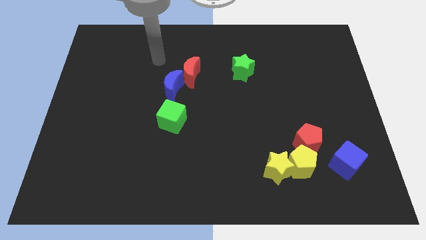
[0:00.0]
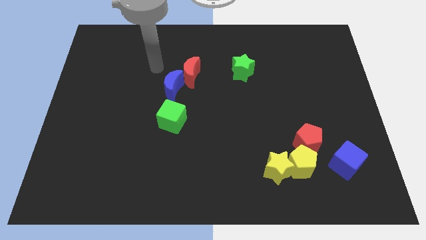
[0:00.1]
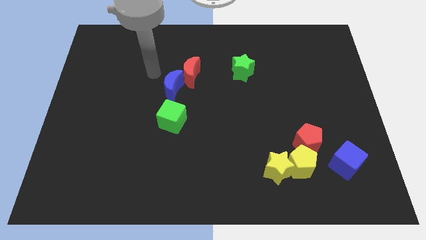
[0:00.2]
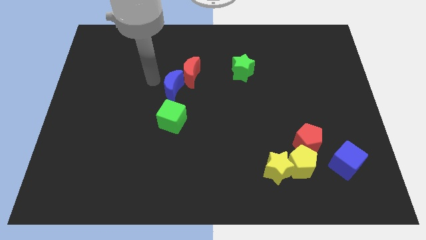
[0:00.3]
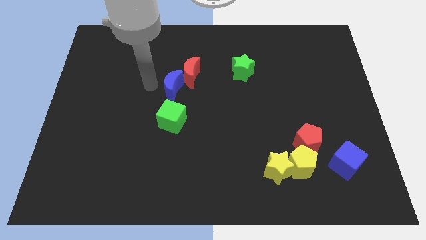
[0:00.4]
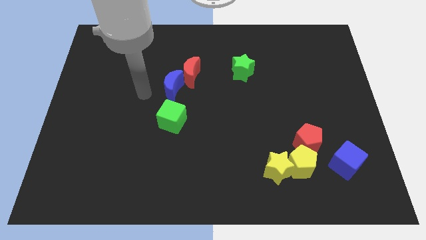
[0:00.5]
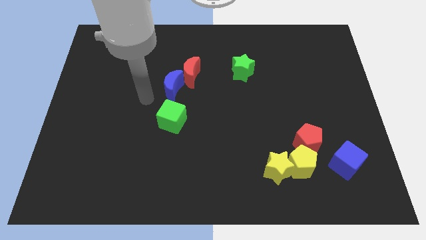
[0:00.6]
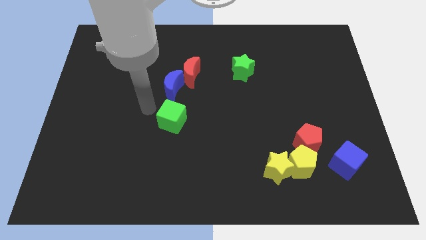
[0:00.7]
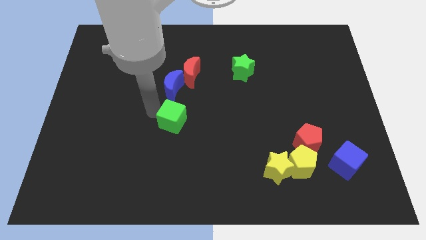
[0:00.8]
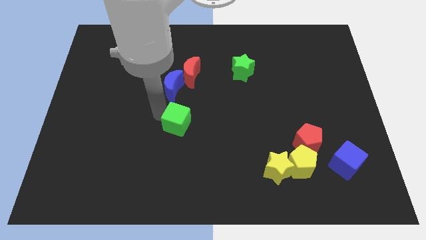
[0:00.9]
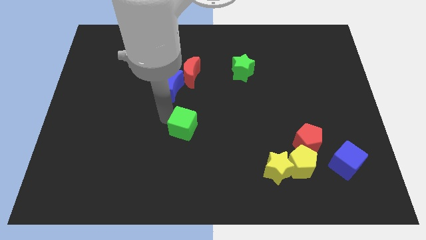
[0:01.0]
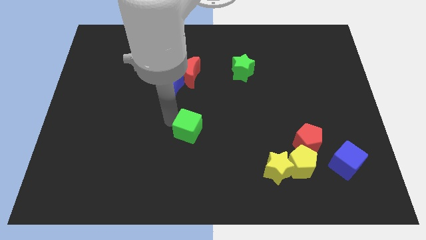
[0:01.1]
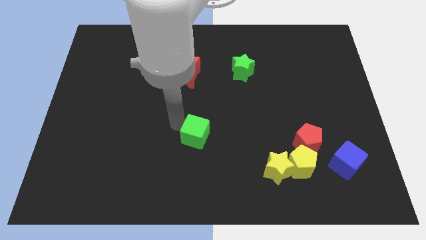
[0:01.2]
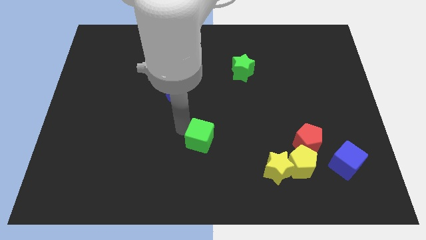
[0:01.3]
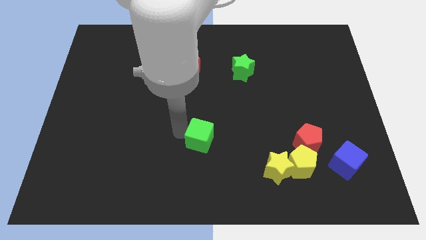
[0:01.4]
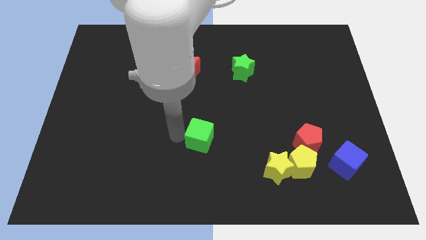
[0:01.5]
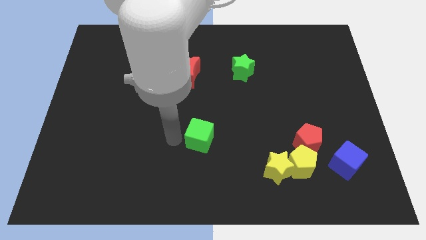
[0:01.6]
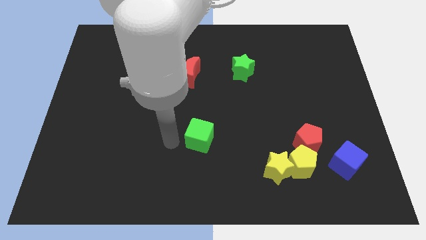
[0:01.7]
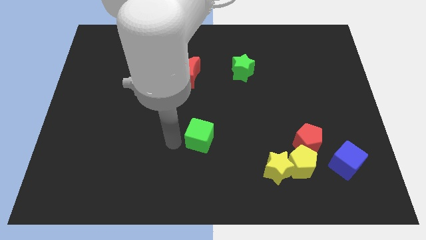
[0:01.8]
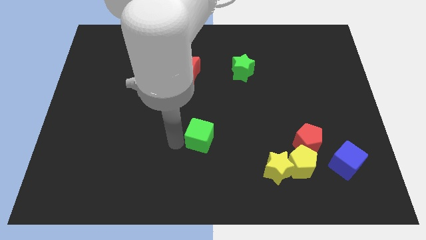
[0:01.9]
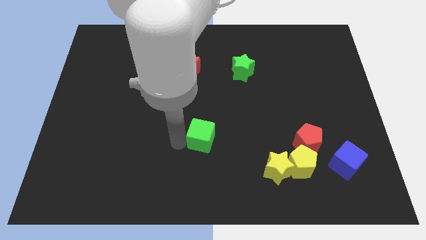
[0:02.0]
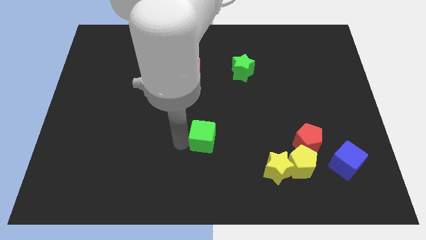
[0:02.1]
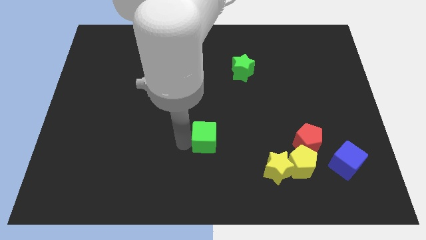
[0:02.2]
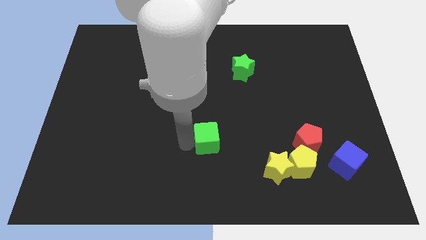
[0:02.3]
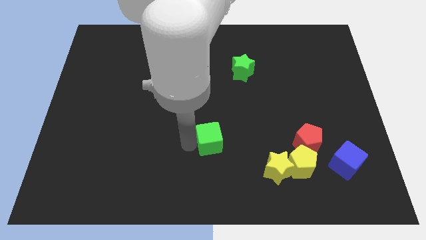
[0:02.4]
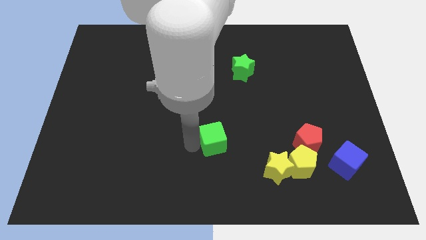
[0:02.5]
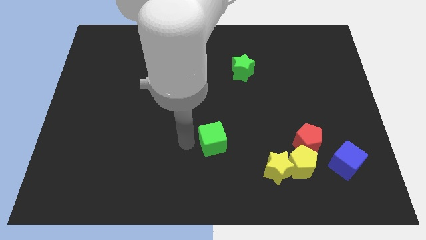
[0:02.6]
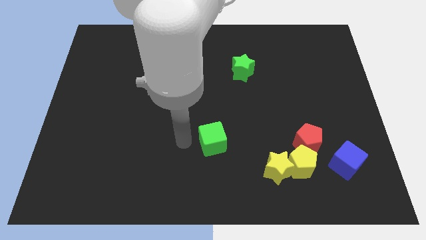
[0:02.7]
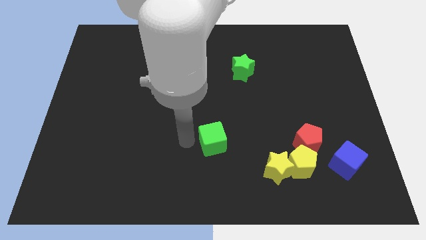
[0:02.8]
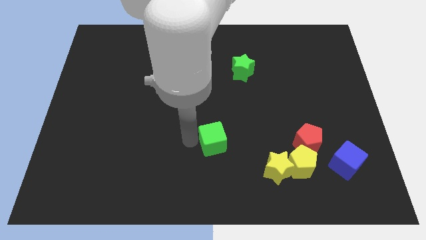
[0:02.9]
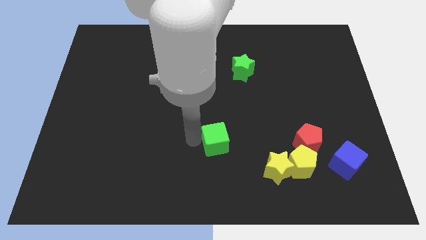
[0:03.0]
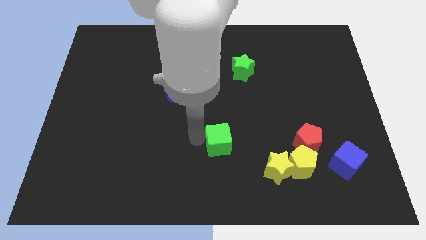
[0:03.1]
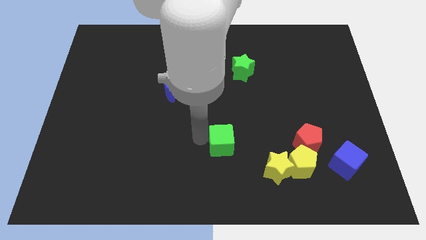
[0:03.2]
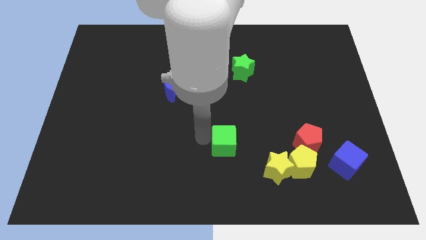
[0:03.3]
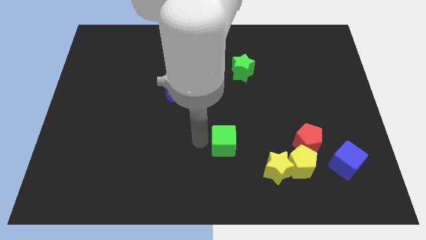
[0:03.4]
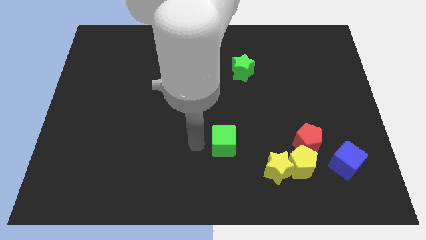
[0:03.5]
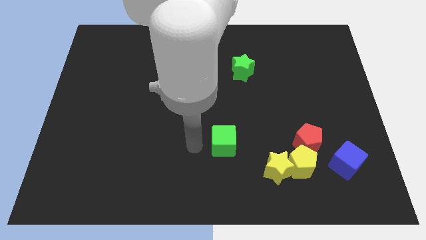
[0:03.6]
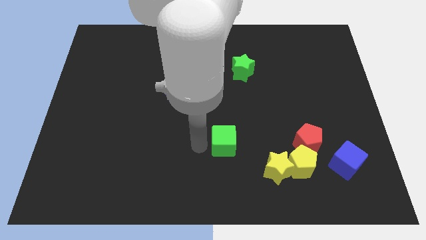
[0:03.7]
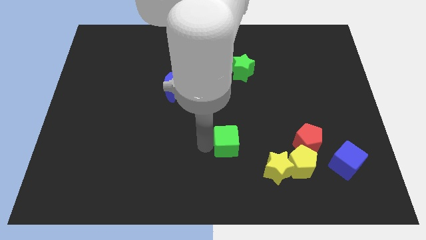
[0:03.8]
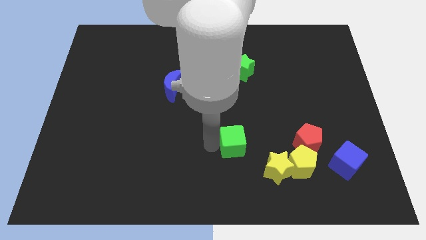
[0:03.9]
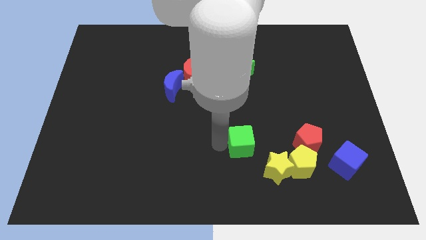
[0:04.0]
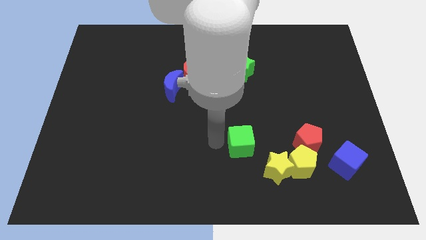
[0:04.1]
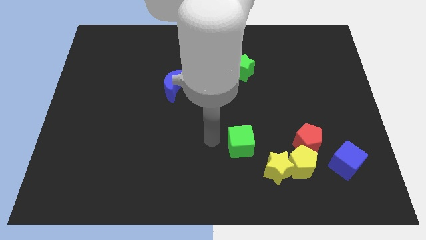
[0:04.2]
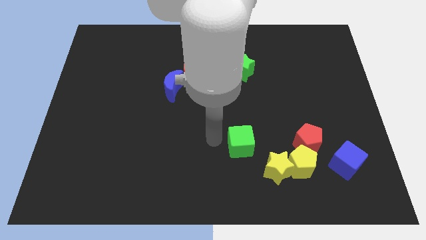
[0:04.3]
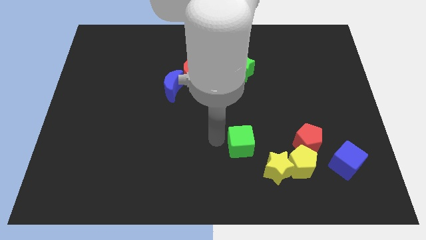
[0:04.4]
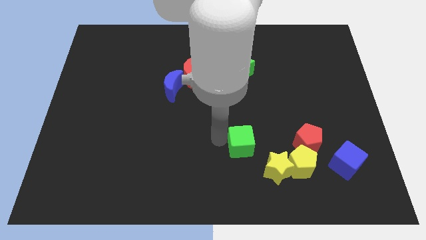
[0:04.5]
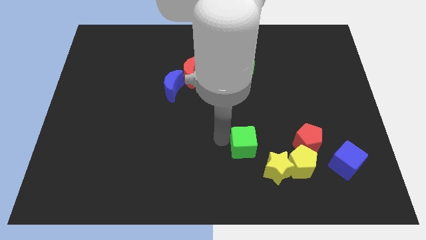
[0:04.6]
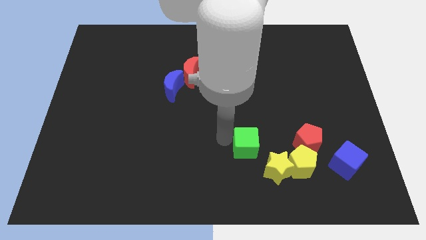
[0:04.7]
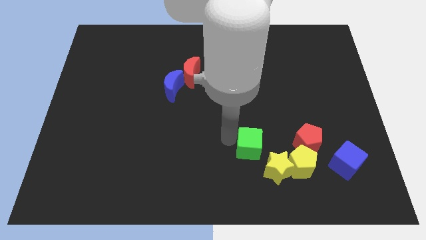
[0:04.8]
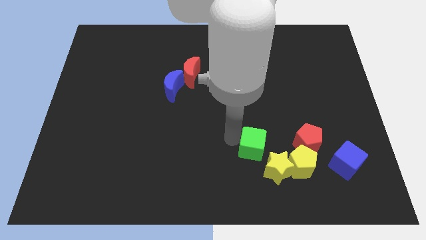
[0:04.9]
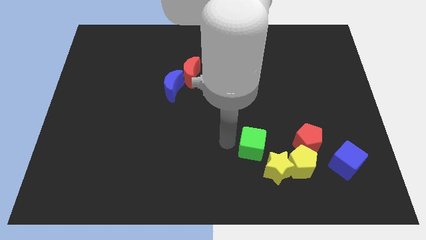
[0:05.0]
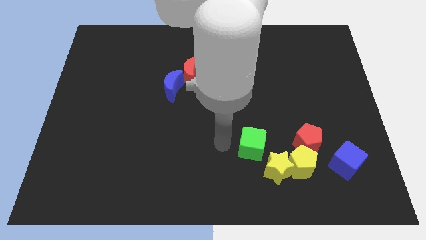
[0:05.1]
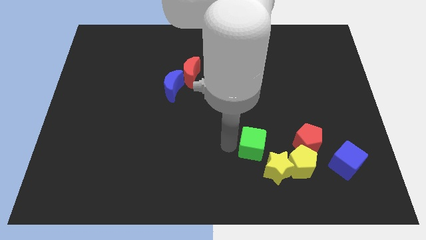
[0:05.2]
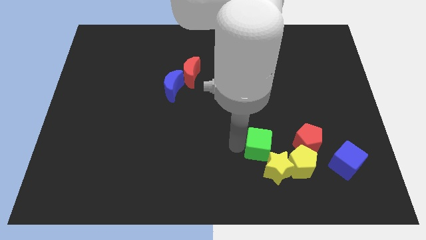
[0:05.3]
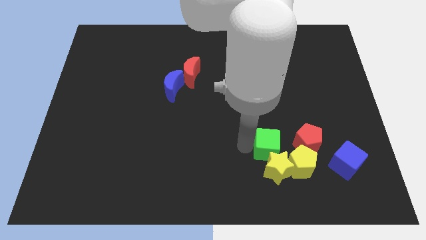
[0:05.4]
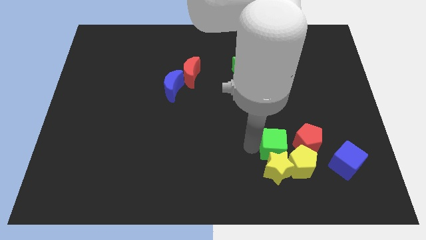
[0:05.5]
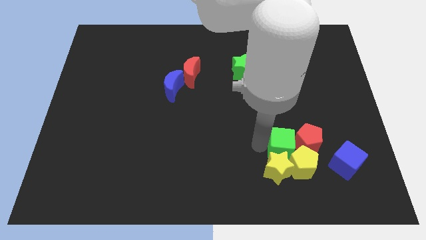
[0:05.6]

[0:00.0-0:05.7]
move the green cube close to the yellow pentagon

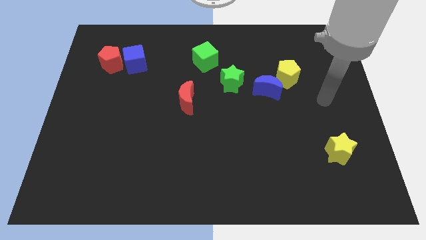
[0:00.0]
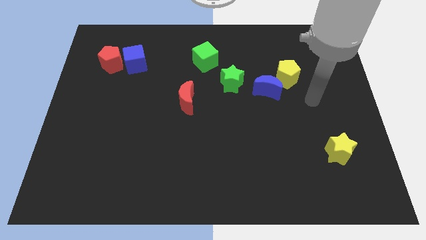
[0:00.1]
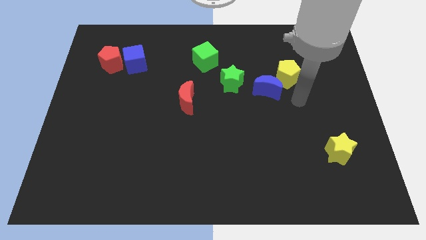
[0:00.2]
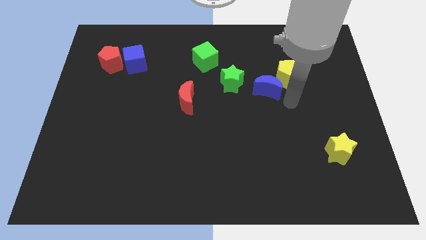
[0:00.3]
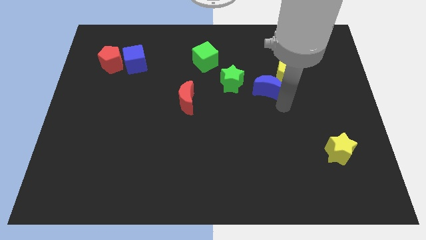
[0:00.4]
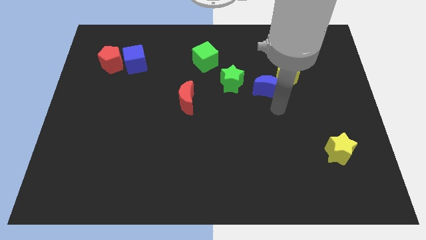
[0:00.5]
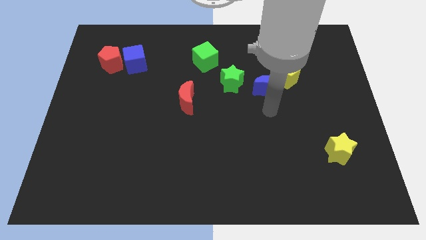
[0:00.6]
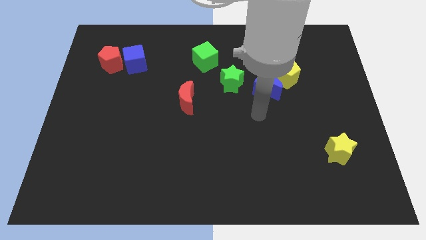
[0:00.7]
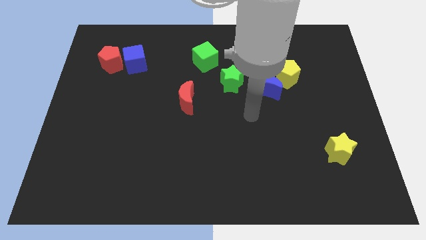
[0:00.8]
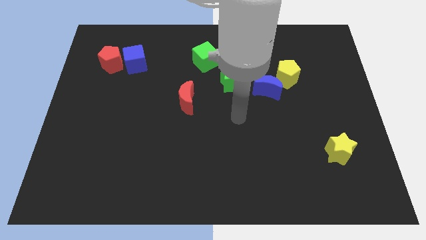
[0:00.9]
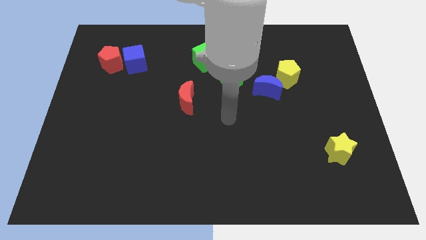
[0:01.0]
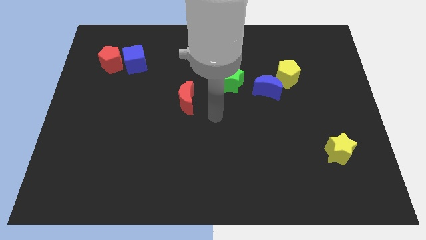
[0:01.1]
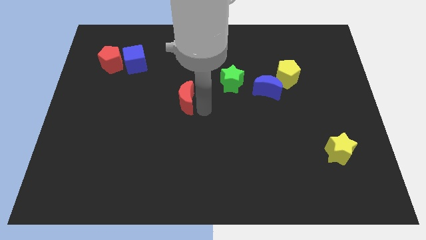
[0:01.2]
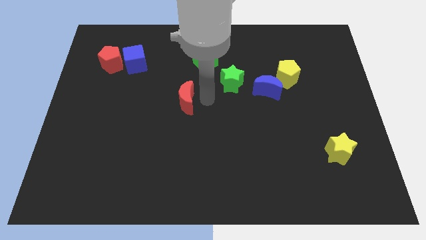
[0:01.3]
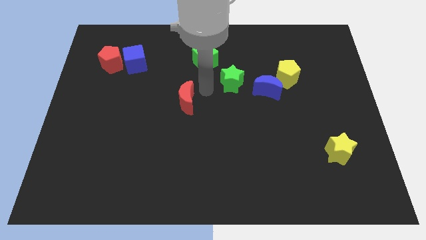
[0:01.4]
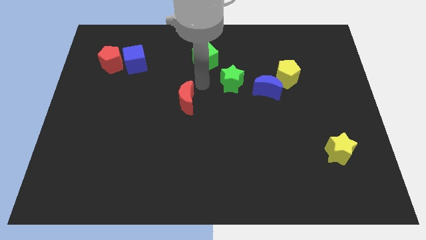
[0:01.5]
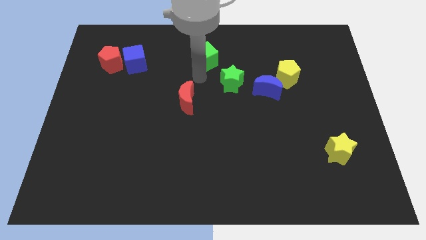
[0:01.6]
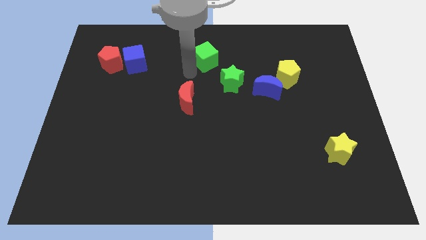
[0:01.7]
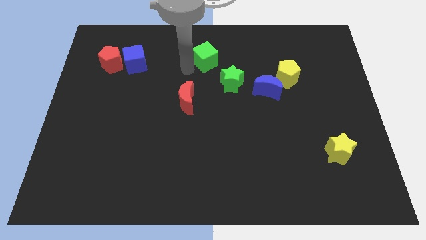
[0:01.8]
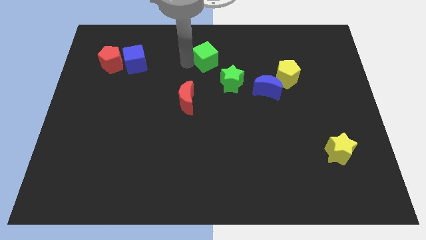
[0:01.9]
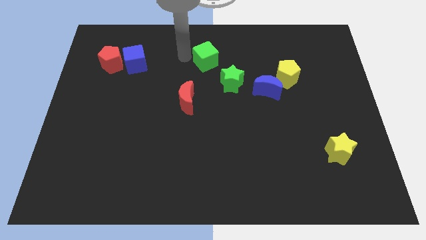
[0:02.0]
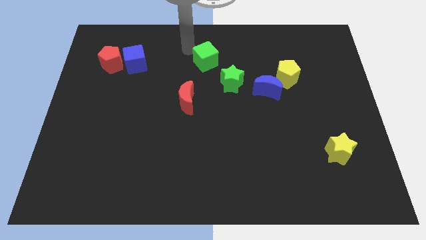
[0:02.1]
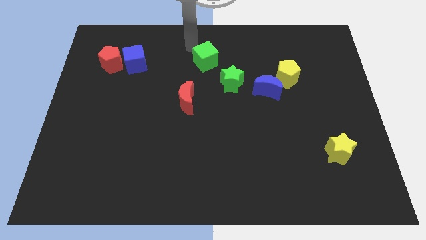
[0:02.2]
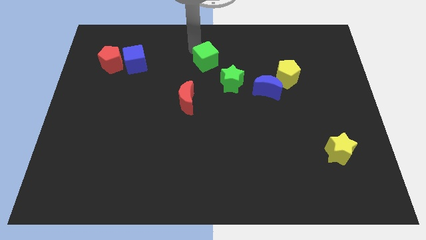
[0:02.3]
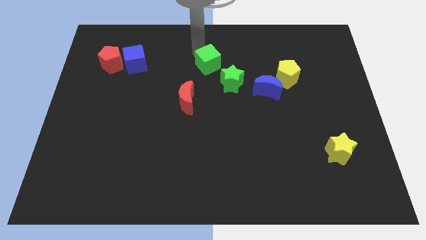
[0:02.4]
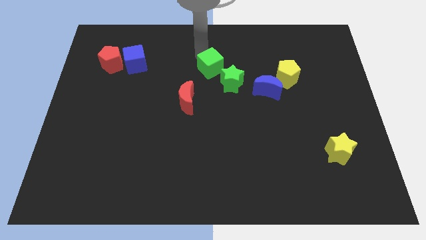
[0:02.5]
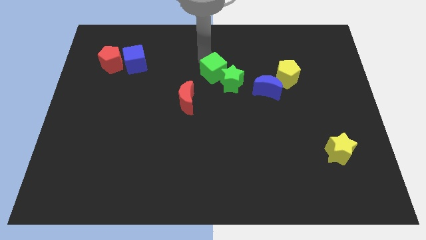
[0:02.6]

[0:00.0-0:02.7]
push the green cube close to the green star
